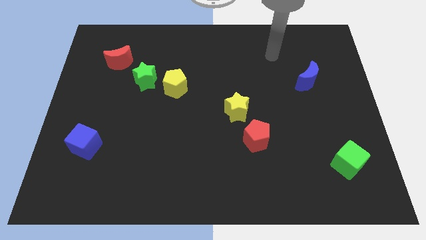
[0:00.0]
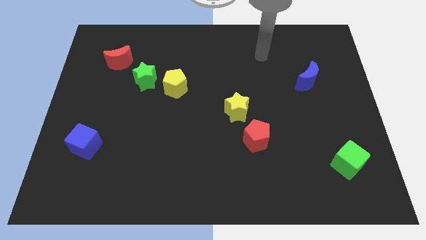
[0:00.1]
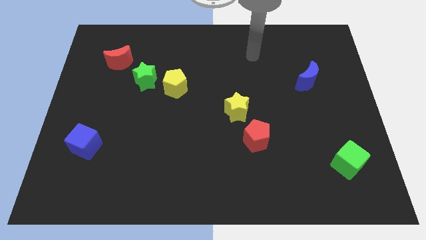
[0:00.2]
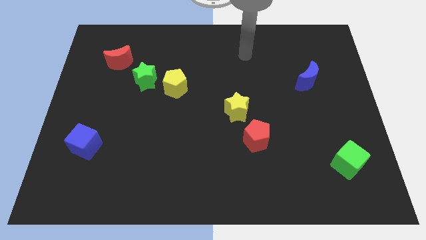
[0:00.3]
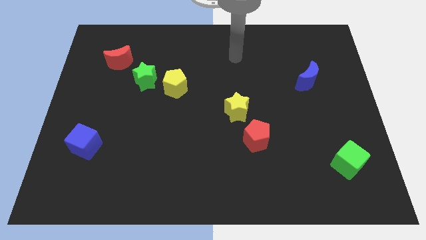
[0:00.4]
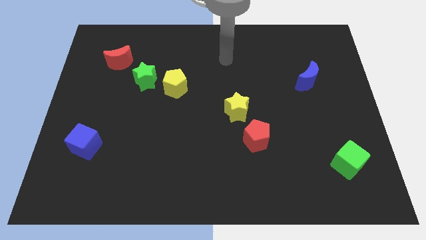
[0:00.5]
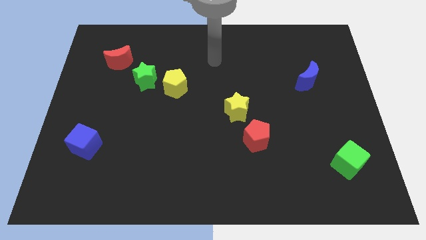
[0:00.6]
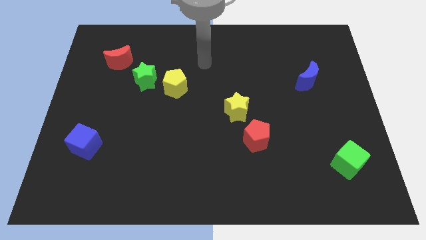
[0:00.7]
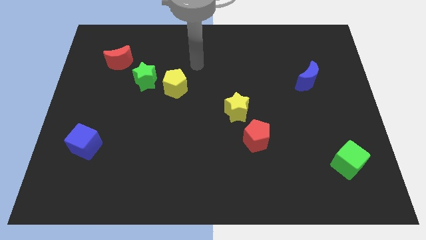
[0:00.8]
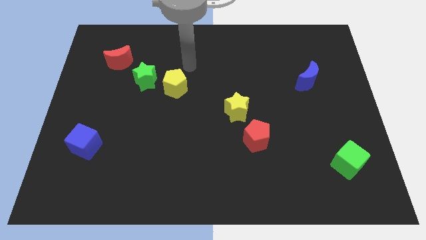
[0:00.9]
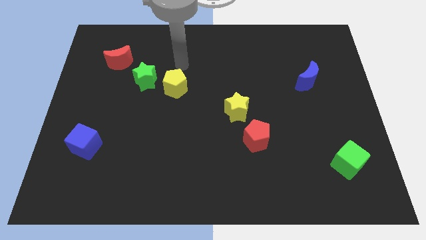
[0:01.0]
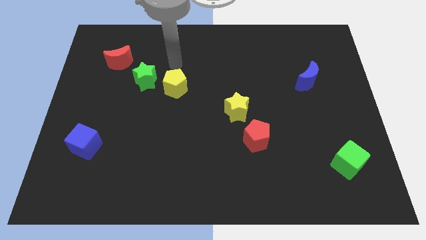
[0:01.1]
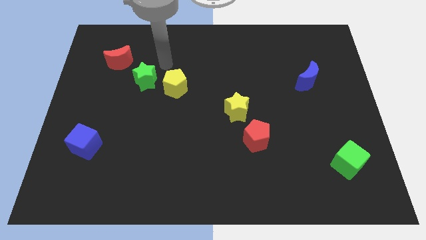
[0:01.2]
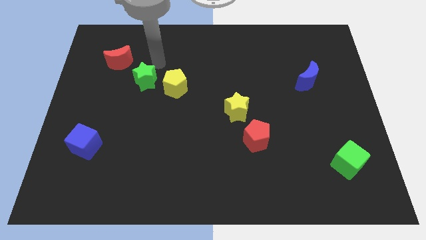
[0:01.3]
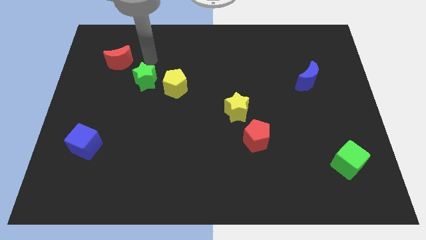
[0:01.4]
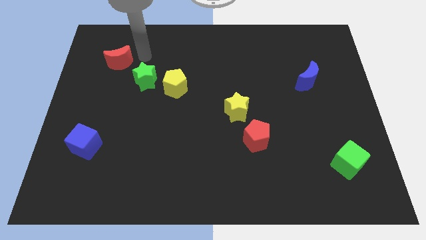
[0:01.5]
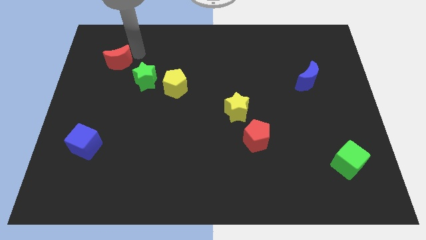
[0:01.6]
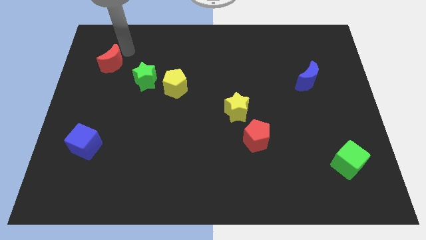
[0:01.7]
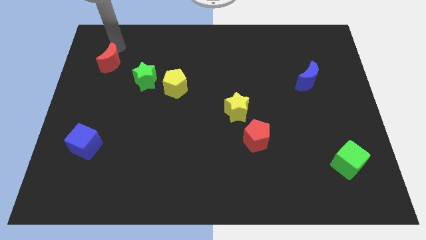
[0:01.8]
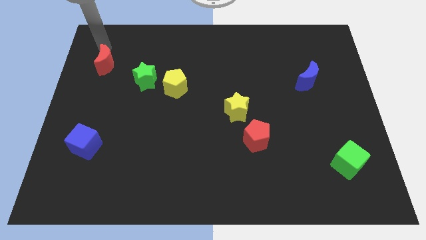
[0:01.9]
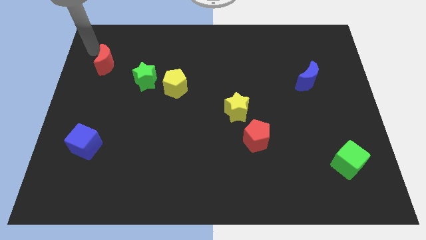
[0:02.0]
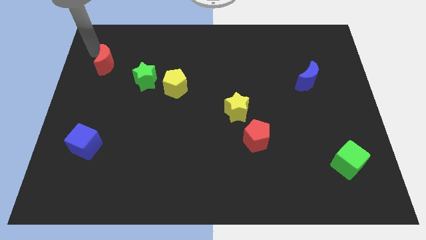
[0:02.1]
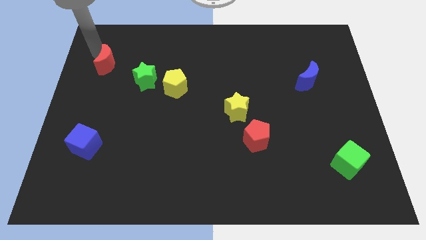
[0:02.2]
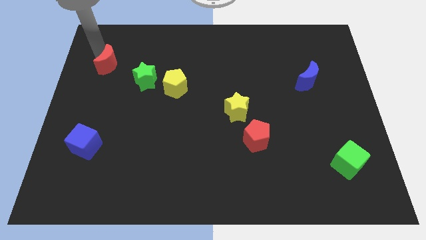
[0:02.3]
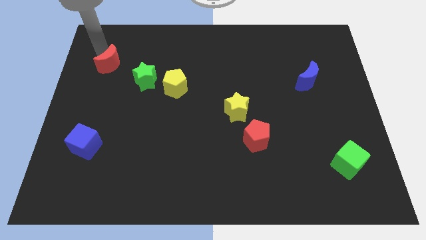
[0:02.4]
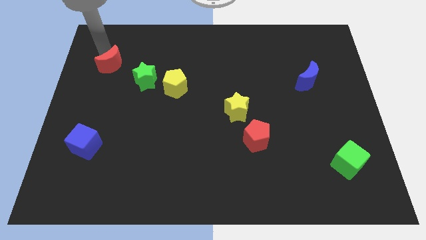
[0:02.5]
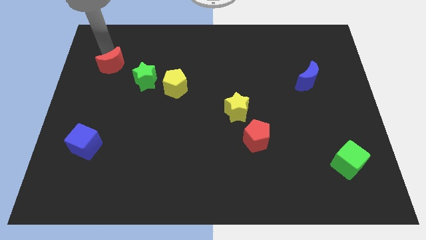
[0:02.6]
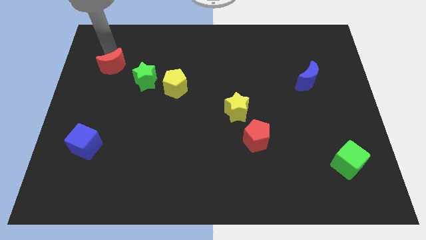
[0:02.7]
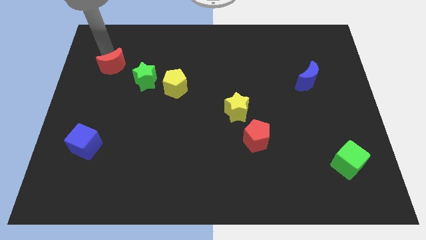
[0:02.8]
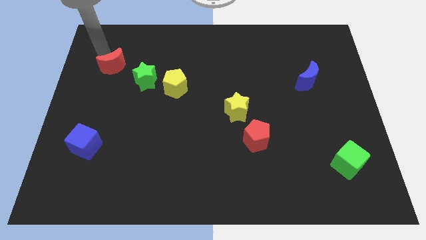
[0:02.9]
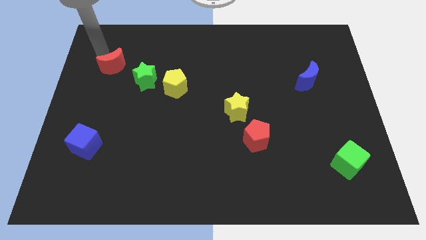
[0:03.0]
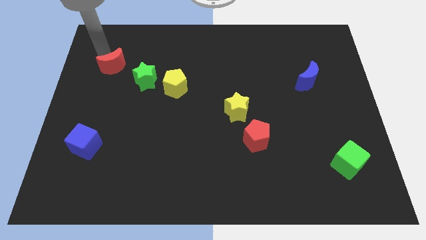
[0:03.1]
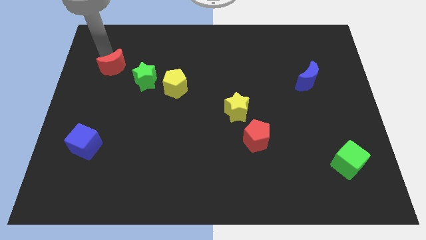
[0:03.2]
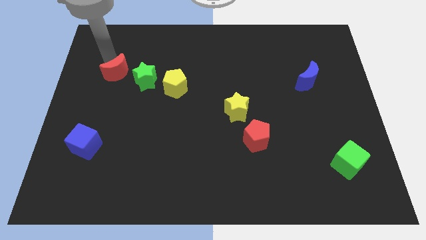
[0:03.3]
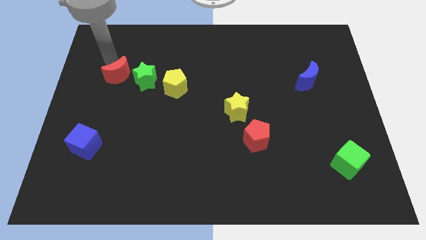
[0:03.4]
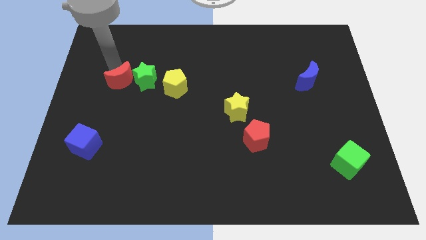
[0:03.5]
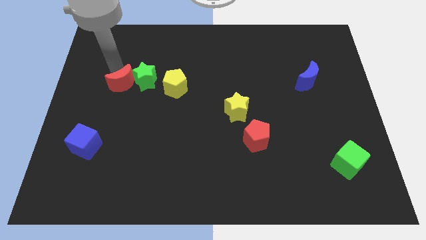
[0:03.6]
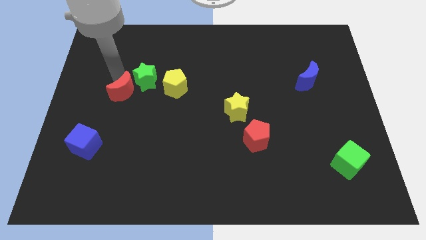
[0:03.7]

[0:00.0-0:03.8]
slightly slide the red moon down and to the right

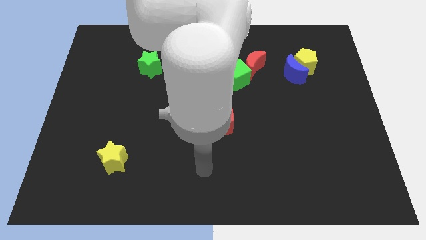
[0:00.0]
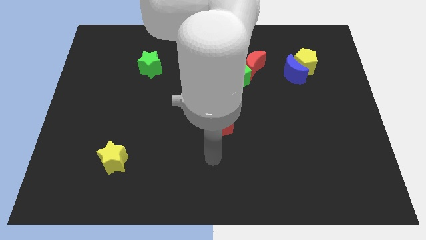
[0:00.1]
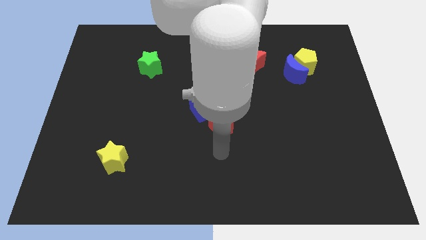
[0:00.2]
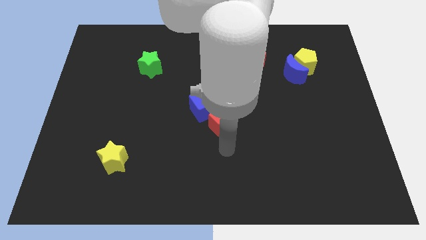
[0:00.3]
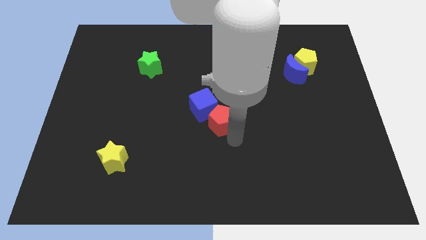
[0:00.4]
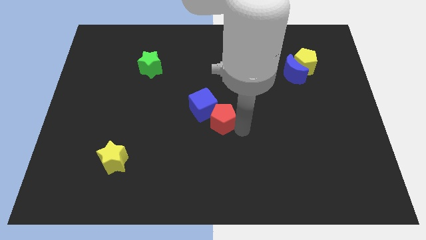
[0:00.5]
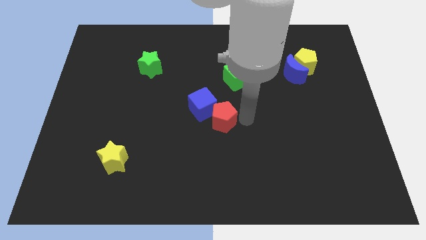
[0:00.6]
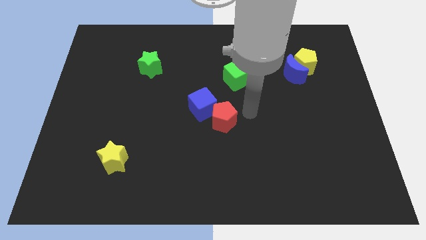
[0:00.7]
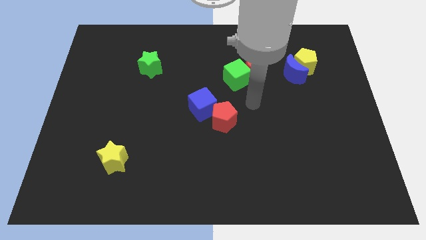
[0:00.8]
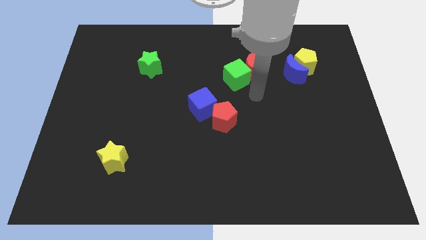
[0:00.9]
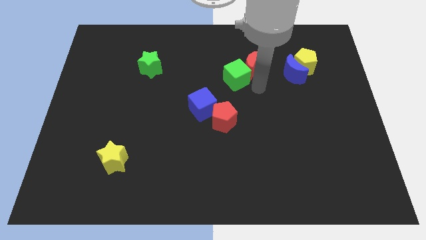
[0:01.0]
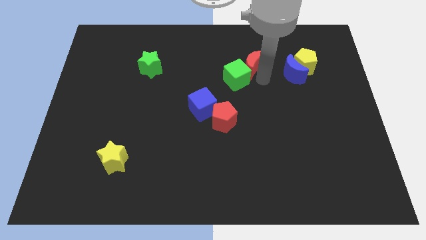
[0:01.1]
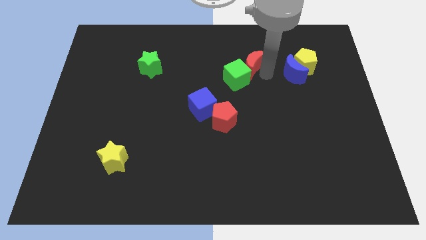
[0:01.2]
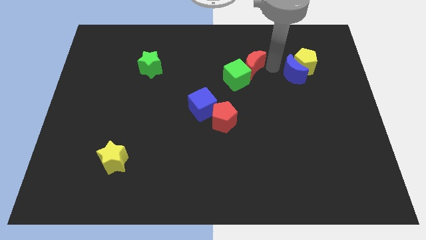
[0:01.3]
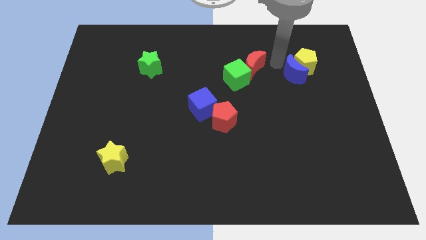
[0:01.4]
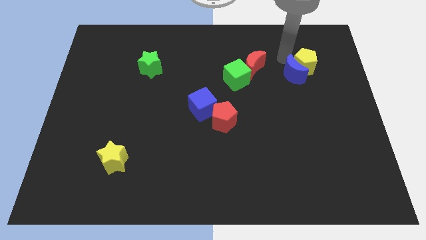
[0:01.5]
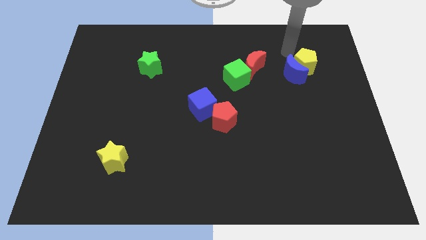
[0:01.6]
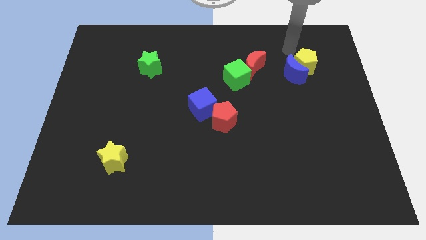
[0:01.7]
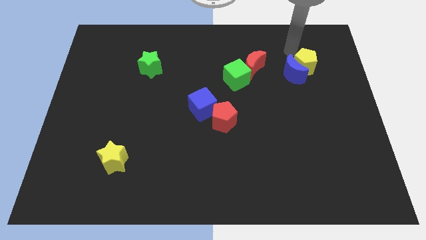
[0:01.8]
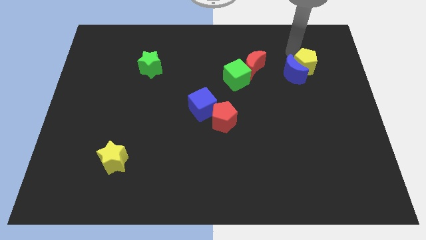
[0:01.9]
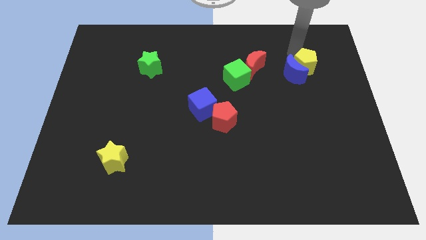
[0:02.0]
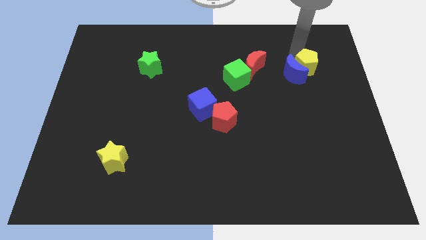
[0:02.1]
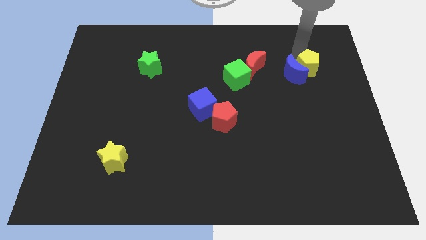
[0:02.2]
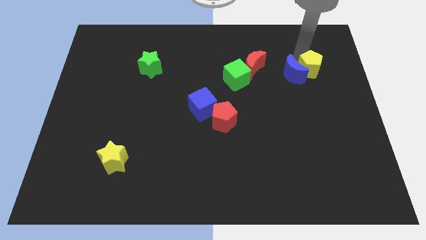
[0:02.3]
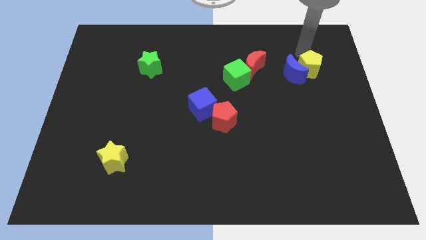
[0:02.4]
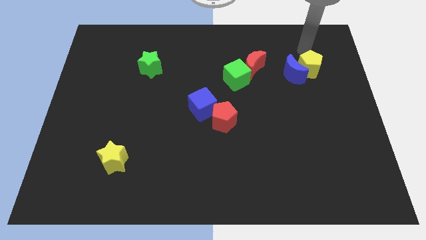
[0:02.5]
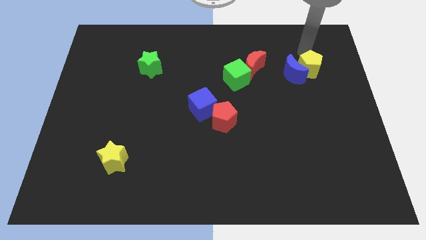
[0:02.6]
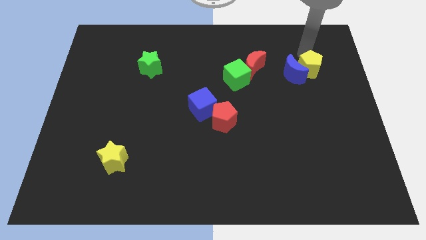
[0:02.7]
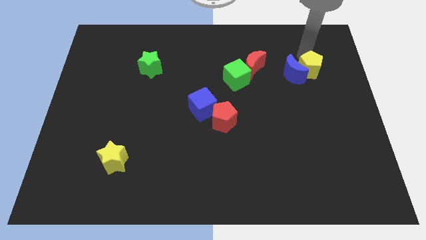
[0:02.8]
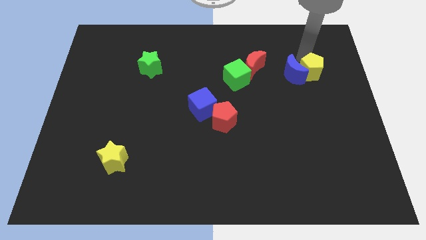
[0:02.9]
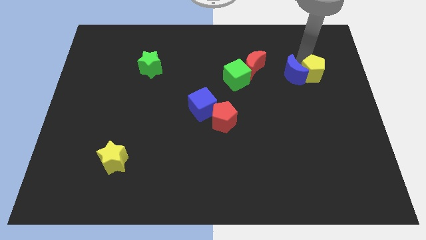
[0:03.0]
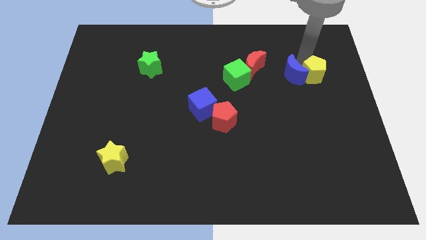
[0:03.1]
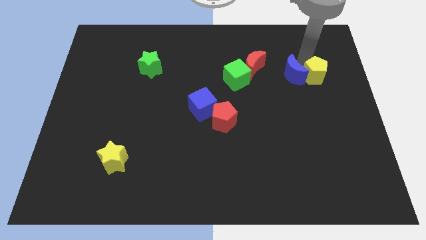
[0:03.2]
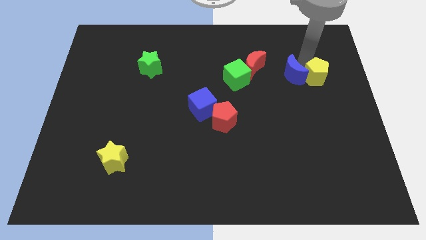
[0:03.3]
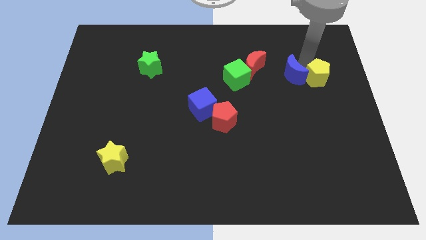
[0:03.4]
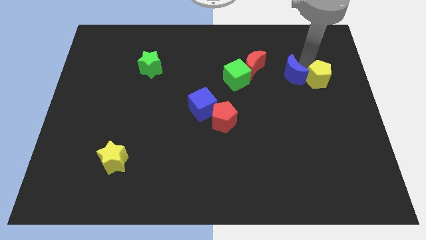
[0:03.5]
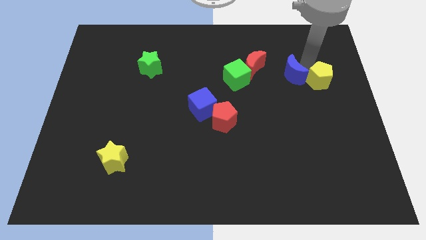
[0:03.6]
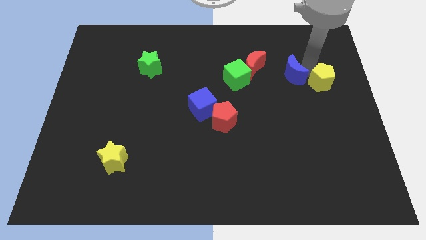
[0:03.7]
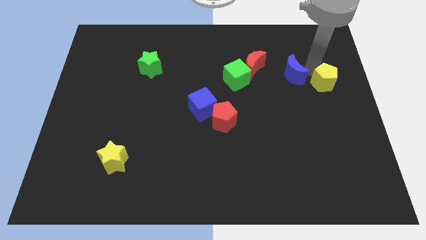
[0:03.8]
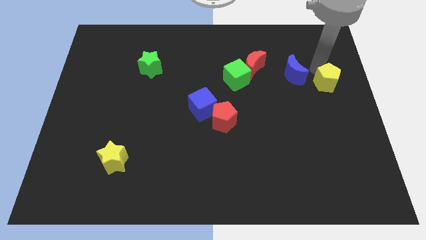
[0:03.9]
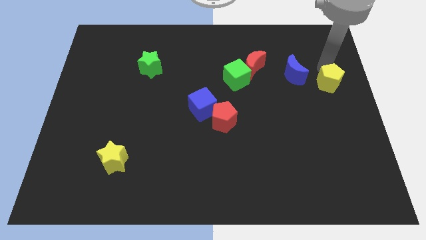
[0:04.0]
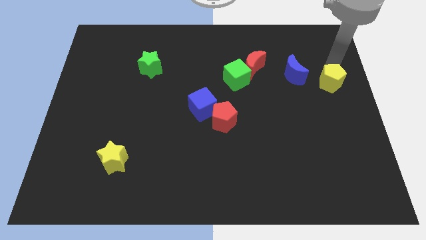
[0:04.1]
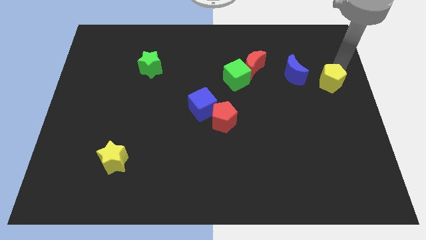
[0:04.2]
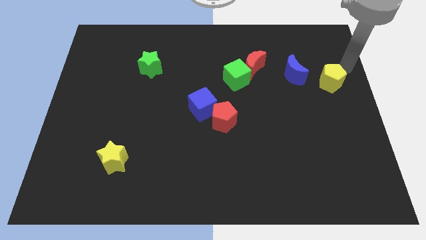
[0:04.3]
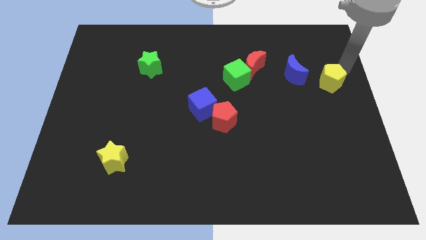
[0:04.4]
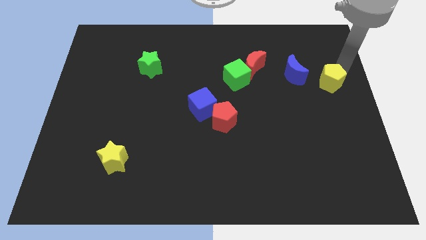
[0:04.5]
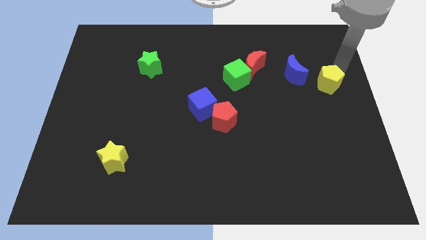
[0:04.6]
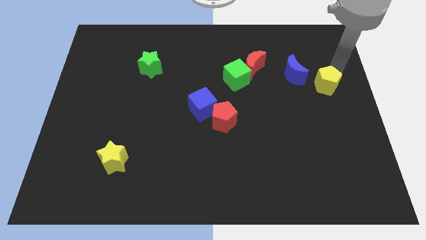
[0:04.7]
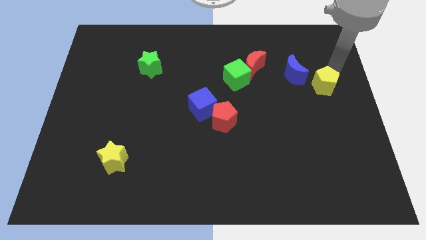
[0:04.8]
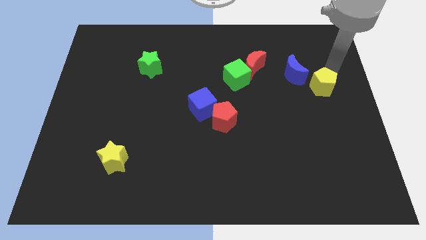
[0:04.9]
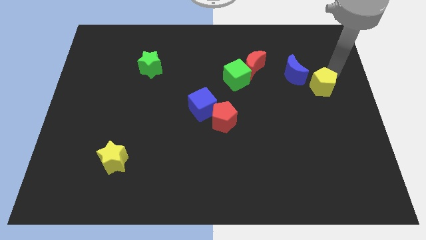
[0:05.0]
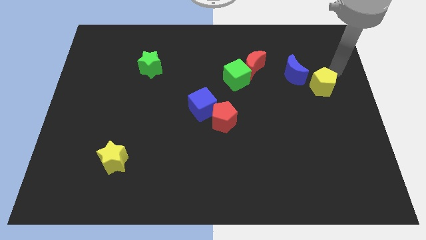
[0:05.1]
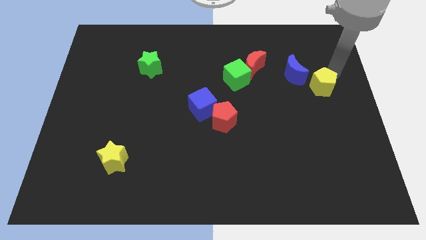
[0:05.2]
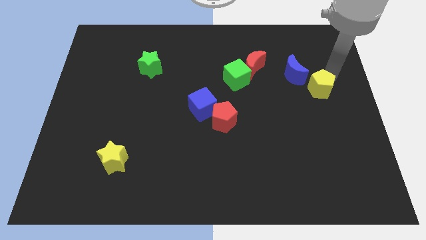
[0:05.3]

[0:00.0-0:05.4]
push the yellow pentagon a little downwards
